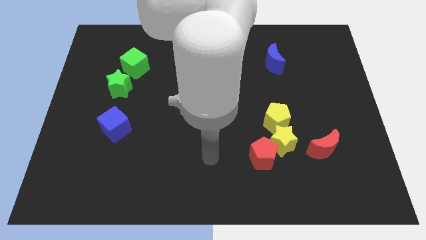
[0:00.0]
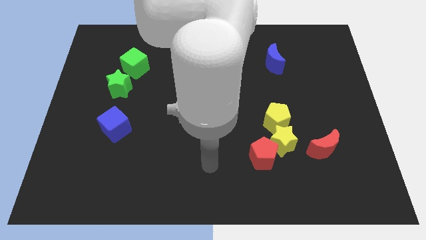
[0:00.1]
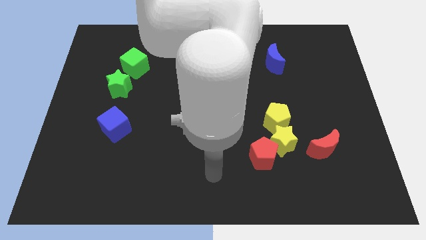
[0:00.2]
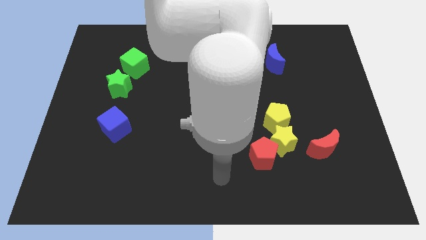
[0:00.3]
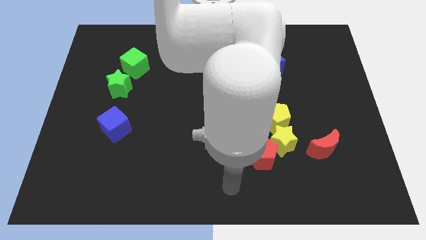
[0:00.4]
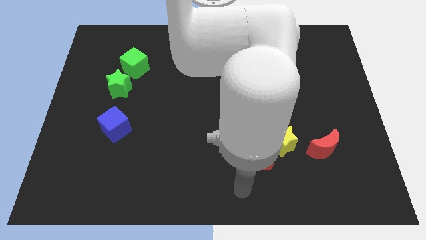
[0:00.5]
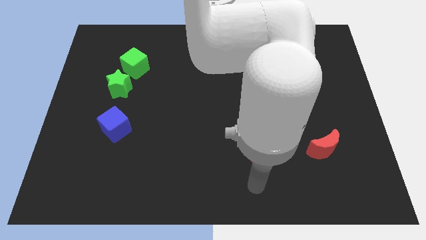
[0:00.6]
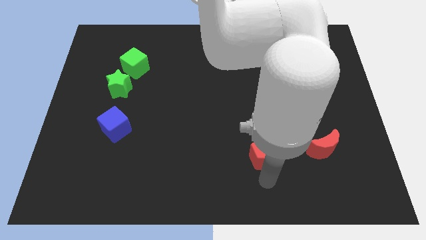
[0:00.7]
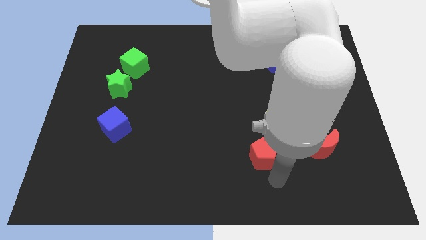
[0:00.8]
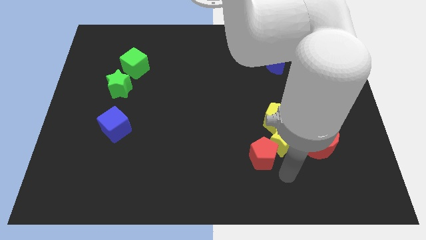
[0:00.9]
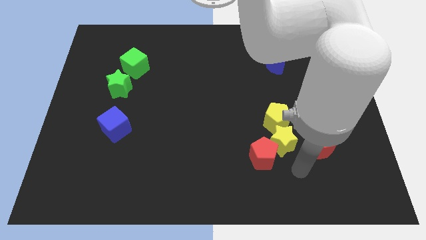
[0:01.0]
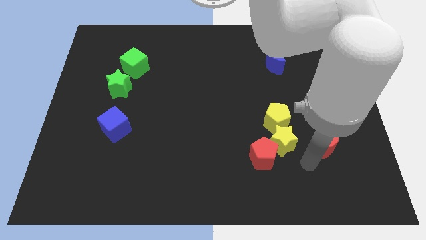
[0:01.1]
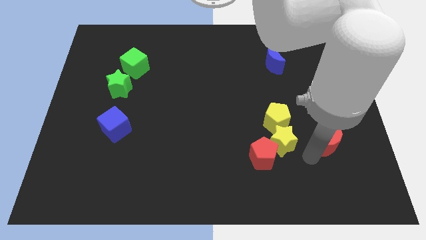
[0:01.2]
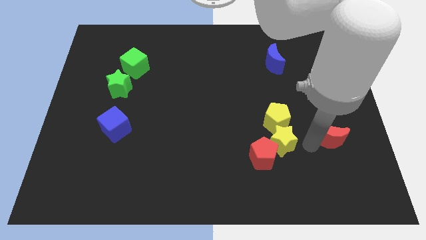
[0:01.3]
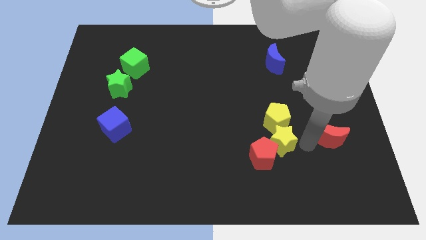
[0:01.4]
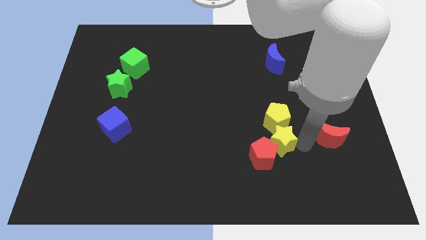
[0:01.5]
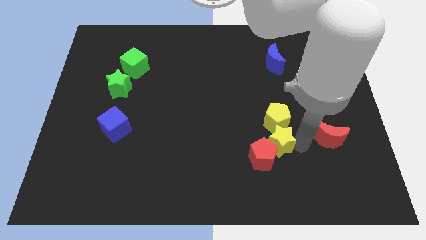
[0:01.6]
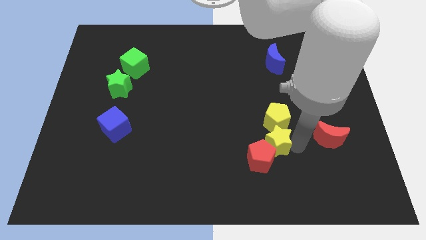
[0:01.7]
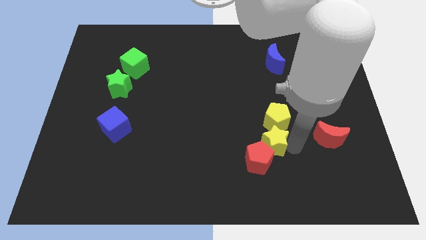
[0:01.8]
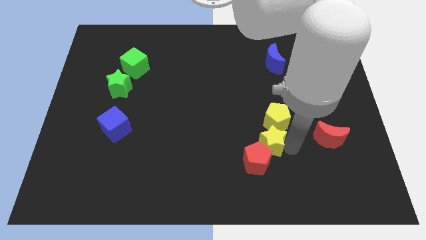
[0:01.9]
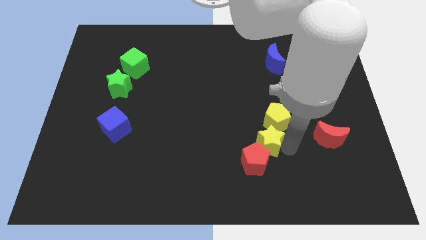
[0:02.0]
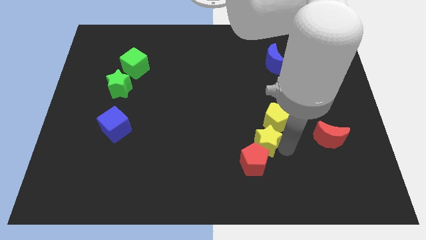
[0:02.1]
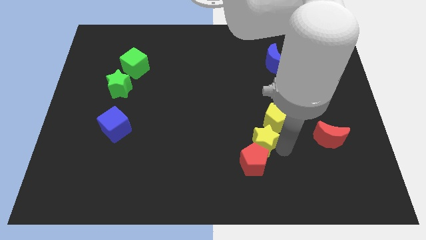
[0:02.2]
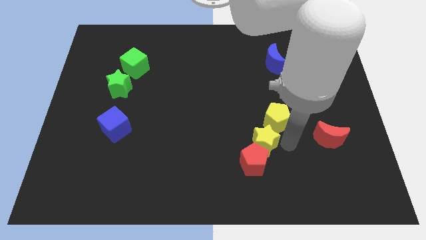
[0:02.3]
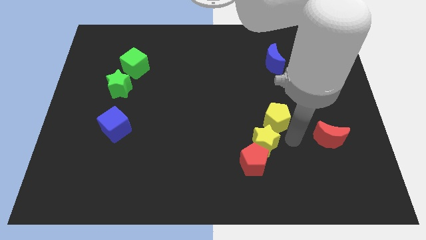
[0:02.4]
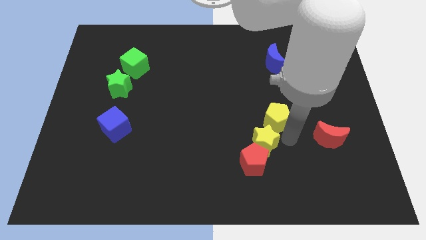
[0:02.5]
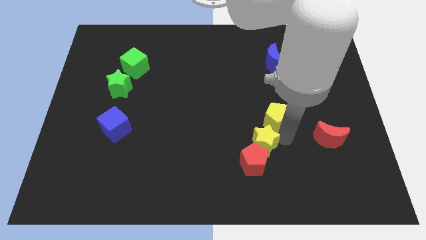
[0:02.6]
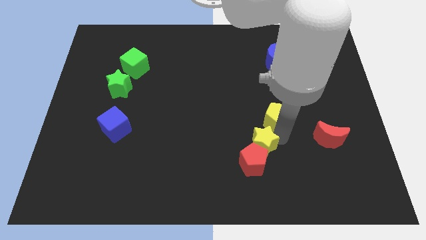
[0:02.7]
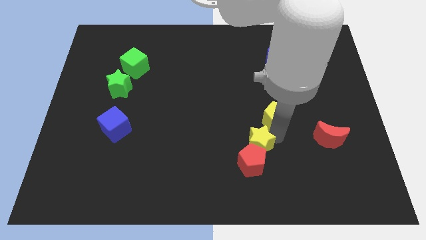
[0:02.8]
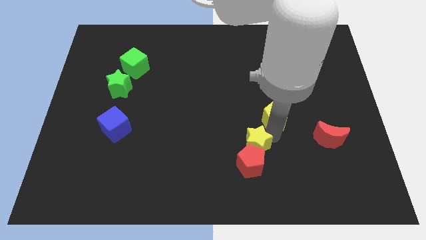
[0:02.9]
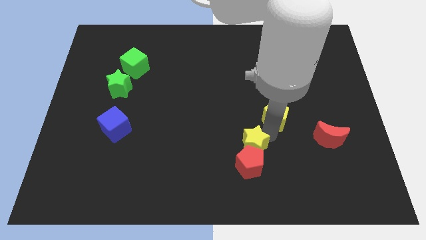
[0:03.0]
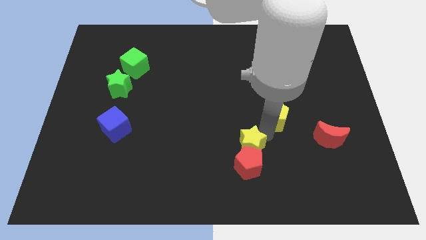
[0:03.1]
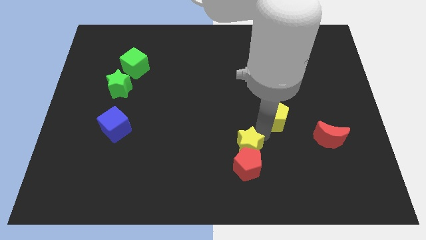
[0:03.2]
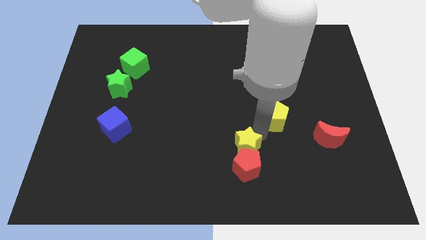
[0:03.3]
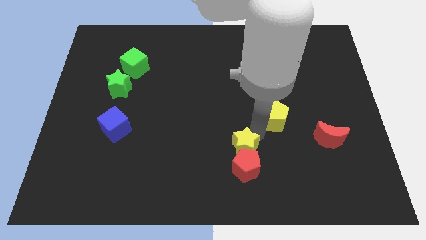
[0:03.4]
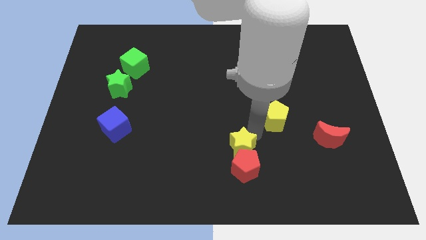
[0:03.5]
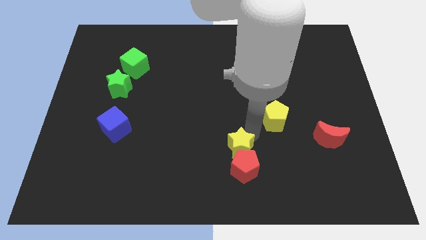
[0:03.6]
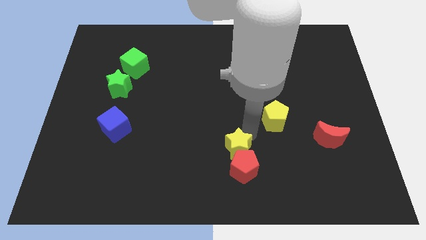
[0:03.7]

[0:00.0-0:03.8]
move the yellow star away from the red pentagon, yellow pentagon, and red moon

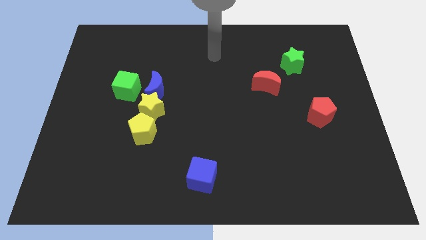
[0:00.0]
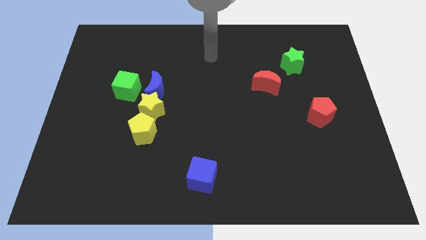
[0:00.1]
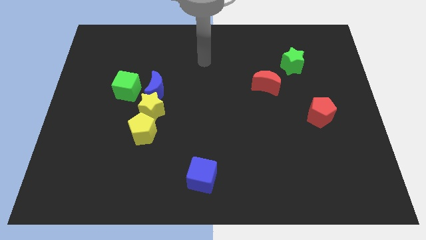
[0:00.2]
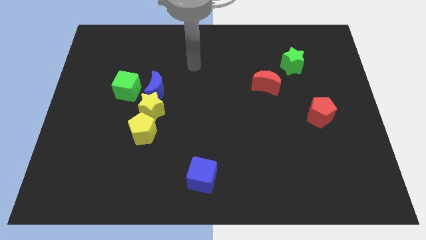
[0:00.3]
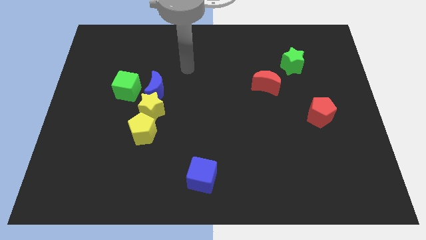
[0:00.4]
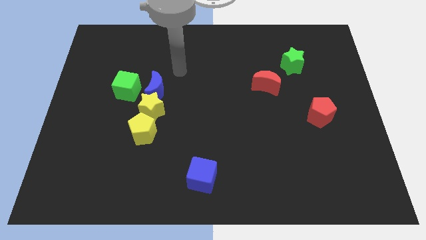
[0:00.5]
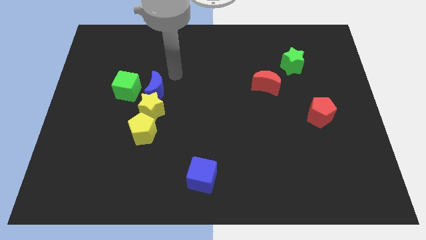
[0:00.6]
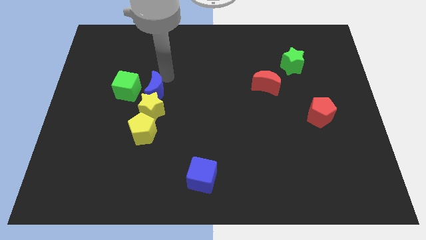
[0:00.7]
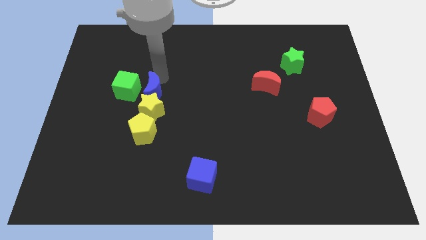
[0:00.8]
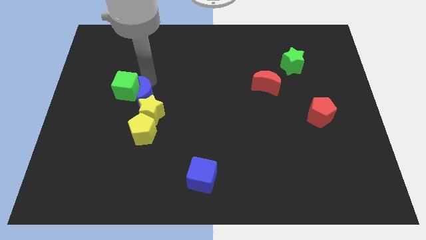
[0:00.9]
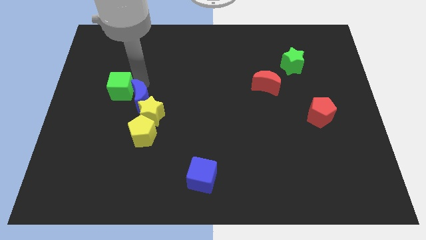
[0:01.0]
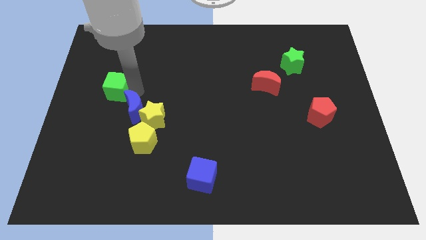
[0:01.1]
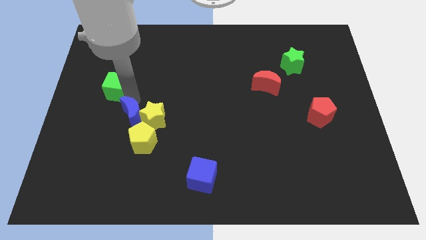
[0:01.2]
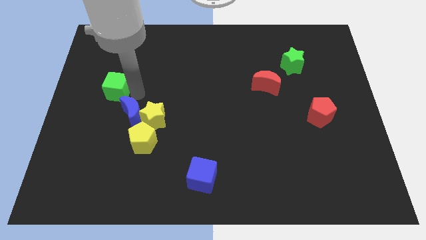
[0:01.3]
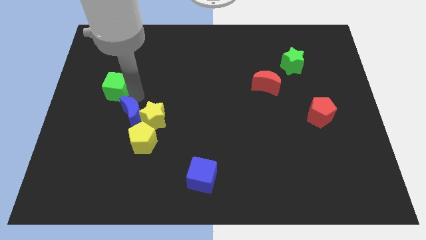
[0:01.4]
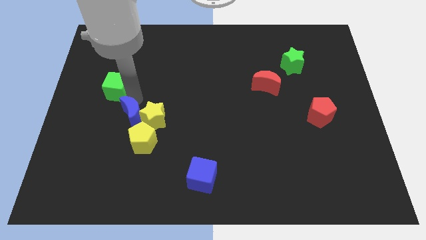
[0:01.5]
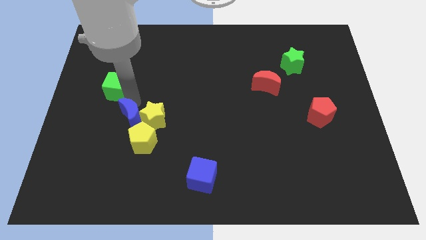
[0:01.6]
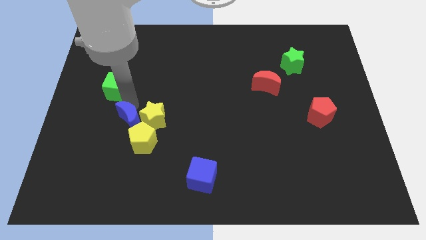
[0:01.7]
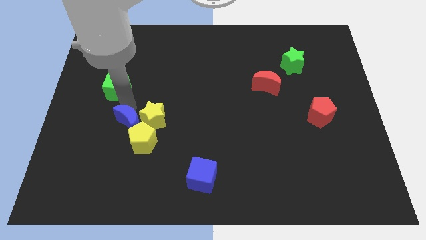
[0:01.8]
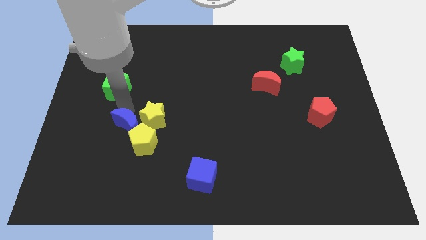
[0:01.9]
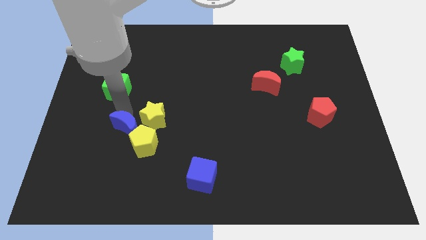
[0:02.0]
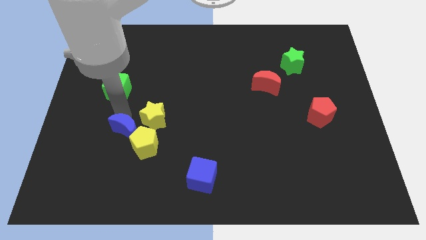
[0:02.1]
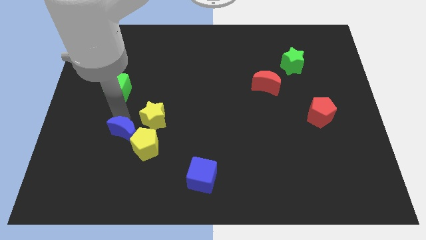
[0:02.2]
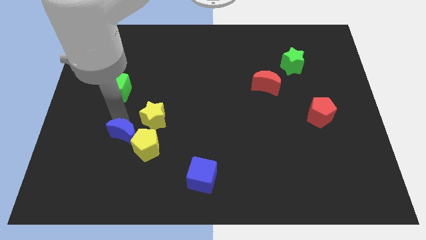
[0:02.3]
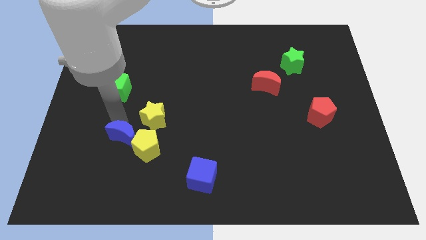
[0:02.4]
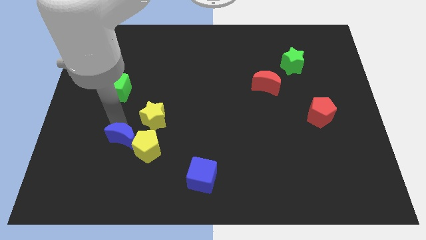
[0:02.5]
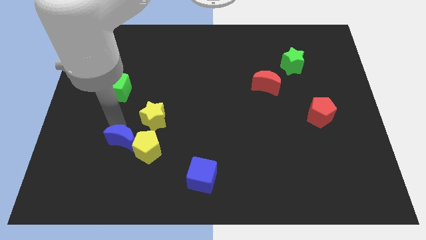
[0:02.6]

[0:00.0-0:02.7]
pull the blue moon apart from the yellow star and green cube

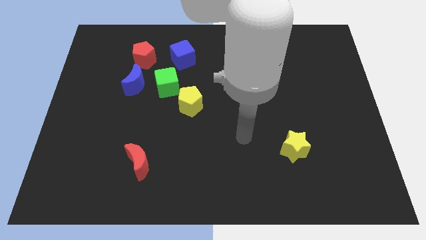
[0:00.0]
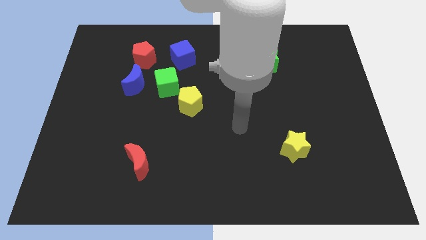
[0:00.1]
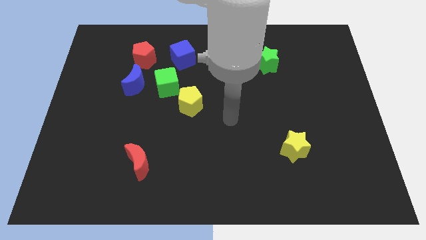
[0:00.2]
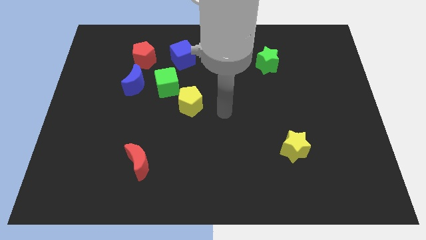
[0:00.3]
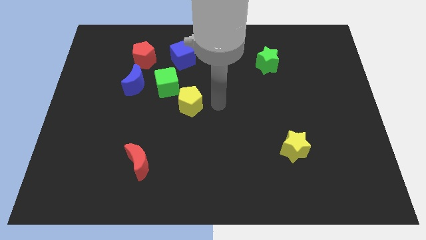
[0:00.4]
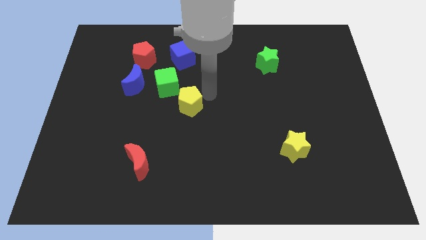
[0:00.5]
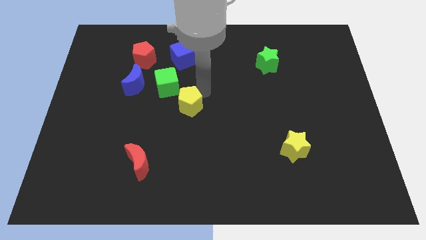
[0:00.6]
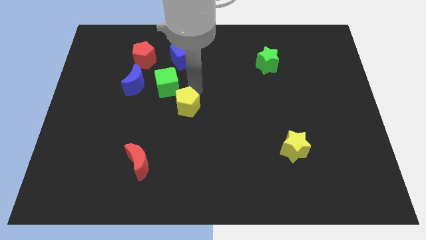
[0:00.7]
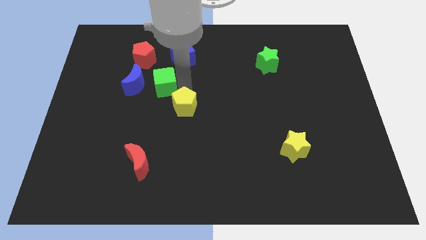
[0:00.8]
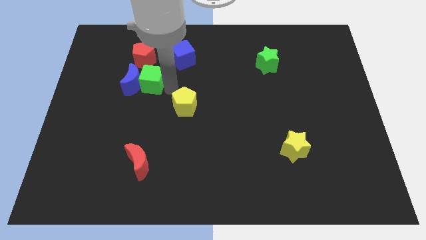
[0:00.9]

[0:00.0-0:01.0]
pull the yellow pentagon apart from the green cube

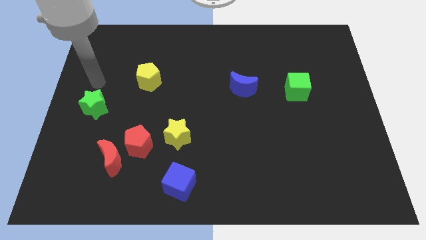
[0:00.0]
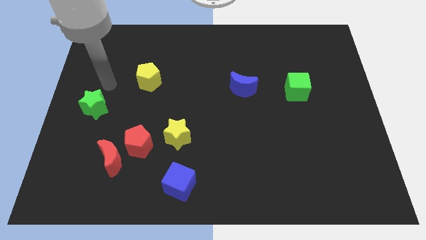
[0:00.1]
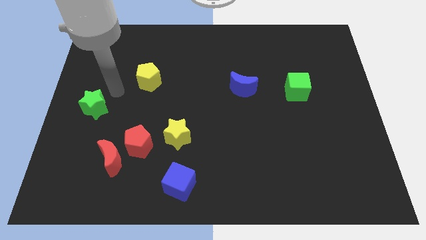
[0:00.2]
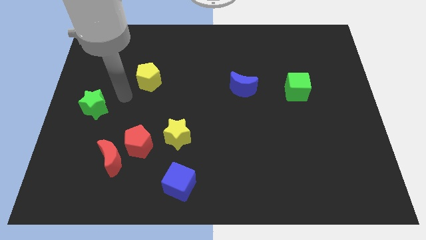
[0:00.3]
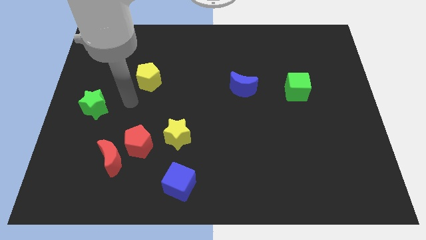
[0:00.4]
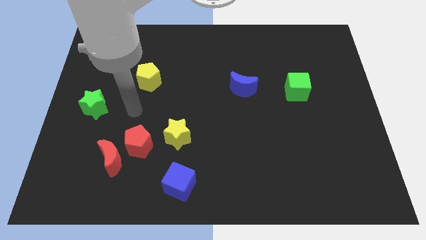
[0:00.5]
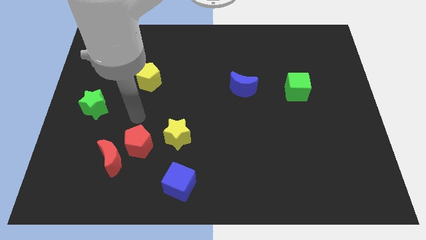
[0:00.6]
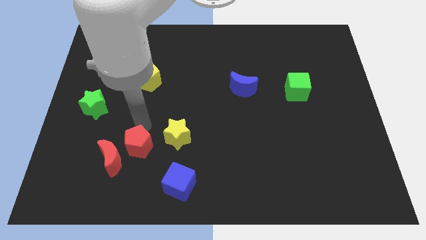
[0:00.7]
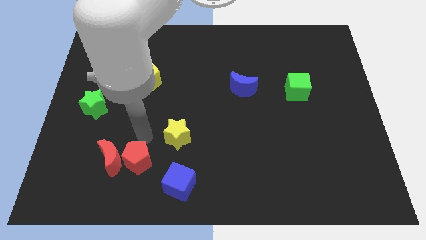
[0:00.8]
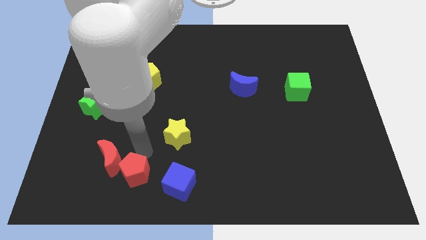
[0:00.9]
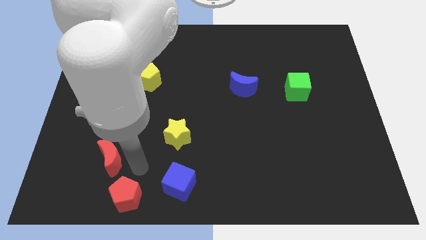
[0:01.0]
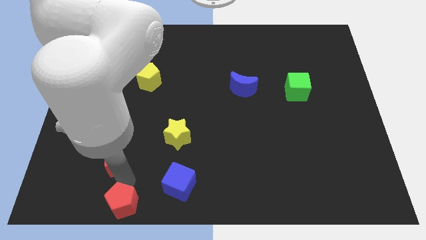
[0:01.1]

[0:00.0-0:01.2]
move the red moon away from the red pentagon

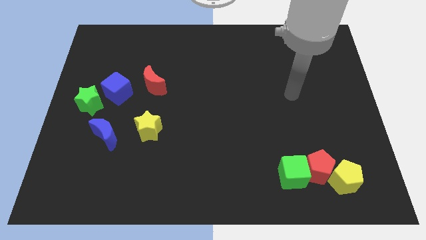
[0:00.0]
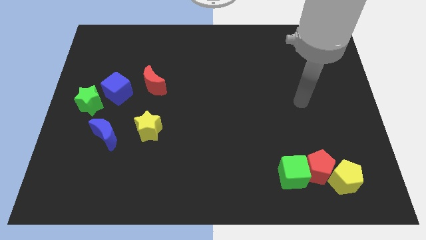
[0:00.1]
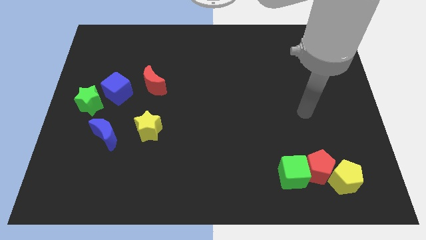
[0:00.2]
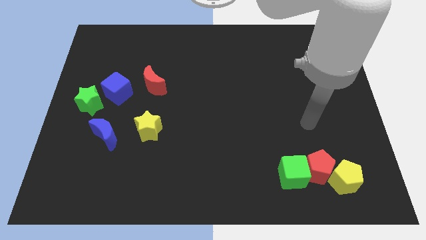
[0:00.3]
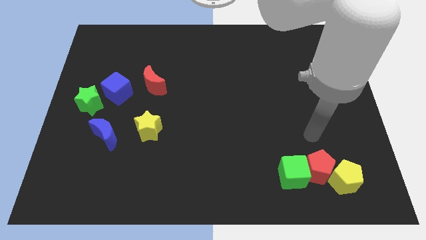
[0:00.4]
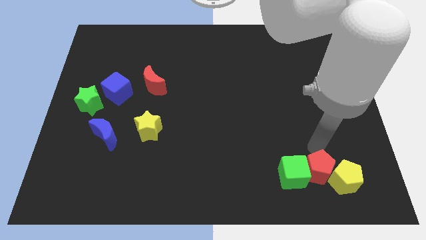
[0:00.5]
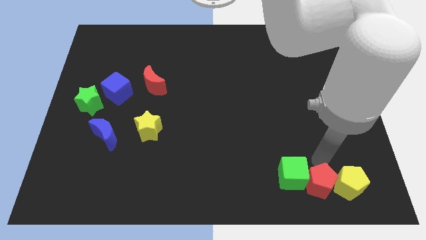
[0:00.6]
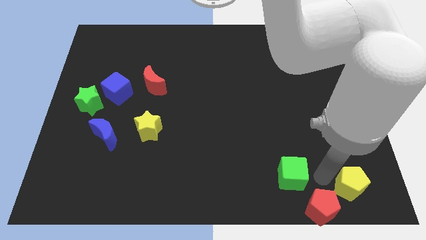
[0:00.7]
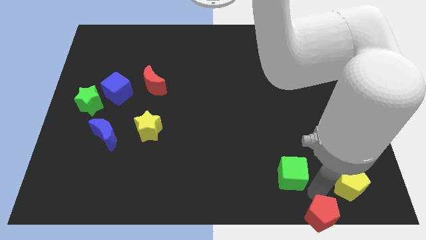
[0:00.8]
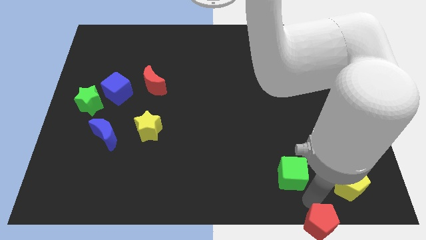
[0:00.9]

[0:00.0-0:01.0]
pull the green cube apart from the red pentagon
